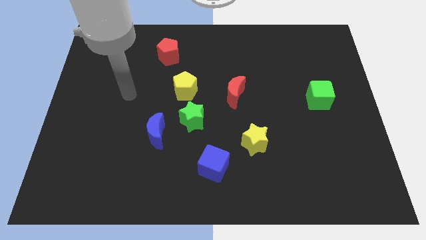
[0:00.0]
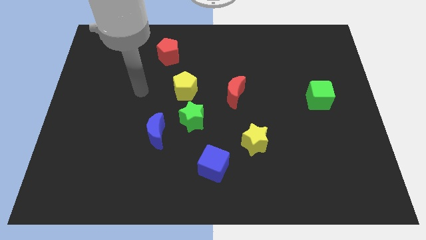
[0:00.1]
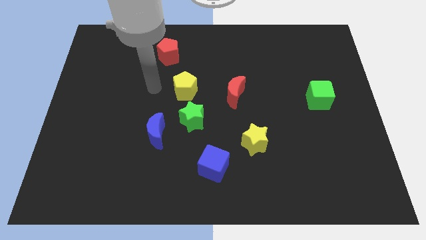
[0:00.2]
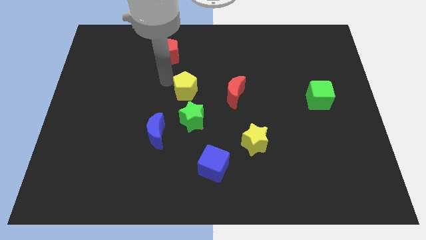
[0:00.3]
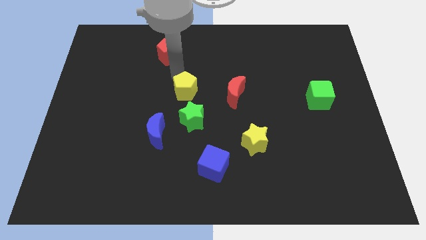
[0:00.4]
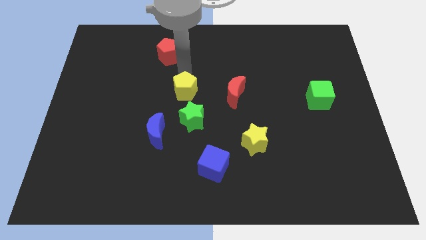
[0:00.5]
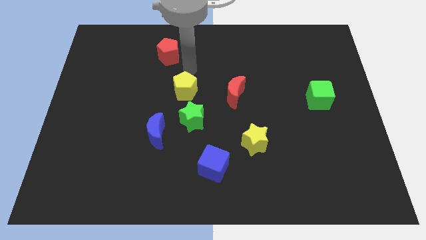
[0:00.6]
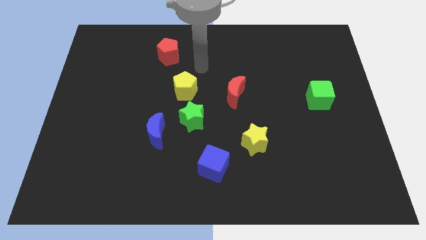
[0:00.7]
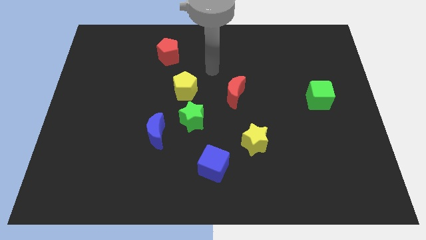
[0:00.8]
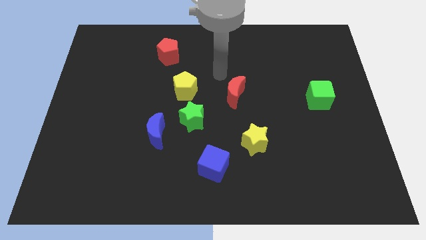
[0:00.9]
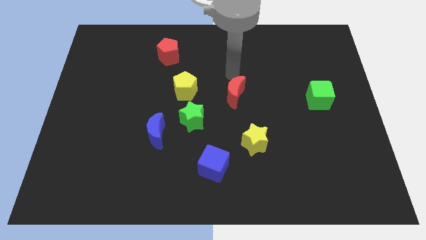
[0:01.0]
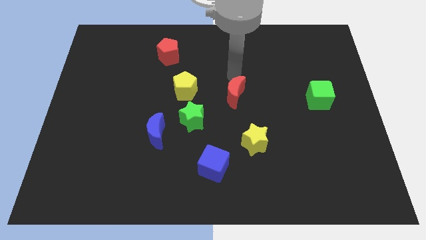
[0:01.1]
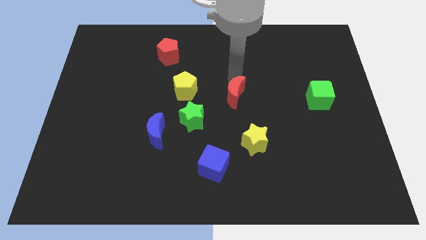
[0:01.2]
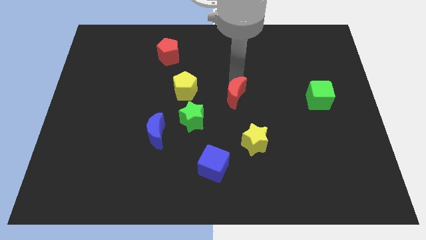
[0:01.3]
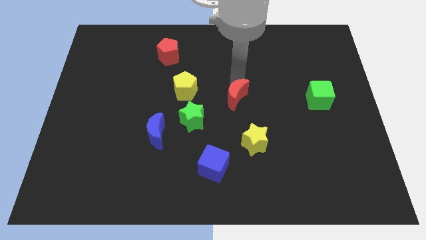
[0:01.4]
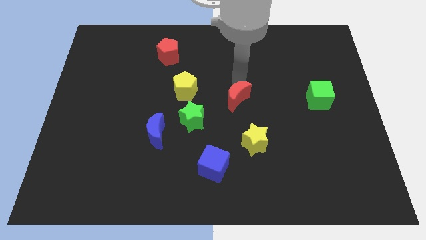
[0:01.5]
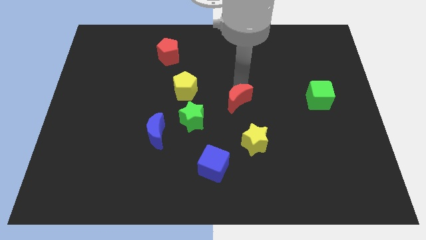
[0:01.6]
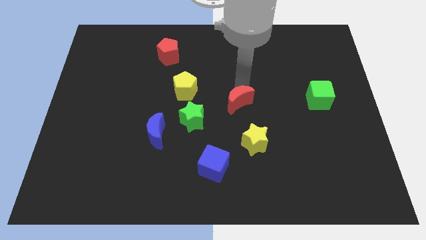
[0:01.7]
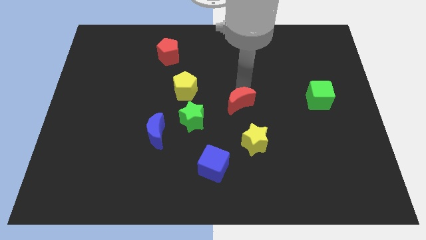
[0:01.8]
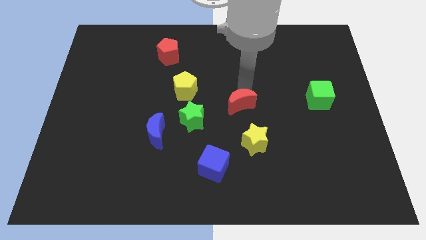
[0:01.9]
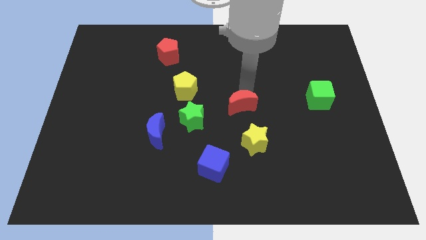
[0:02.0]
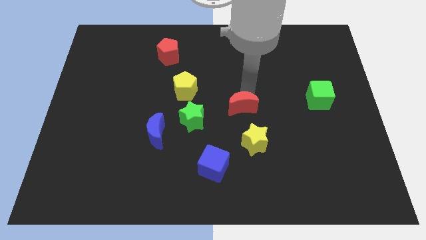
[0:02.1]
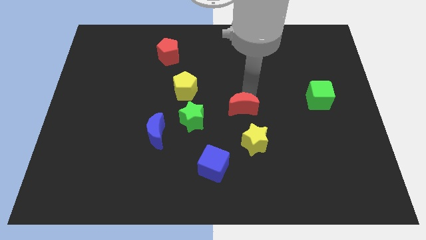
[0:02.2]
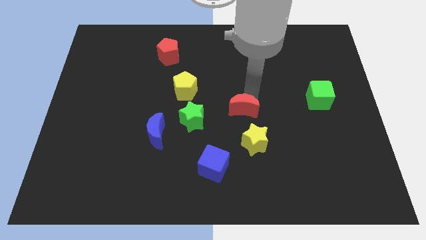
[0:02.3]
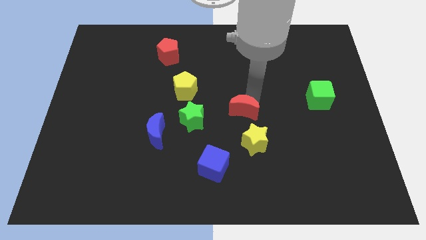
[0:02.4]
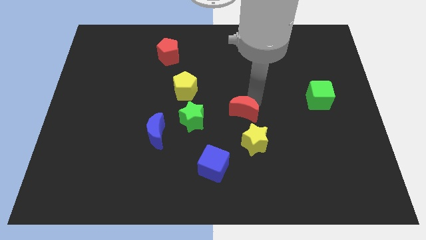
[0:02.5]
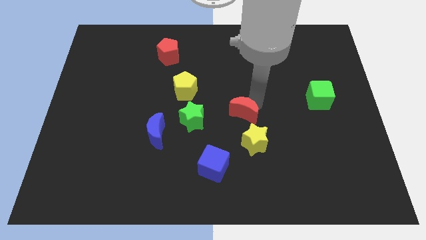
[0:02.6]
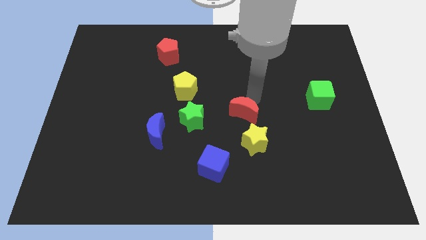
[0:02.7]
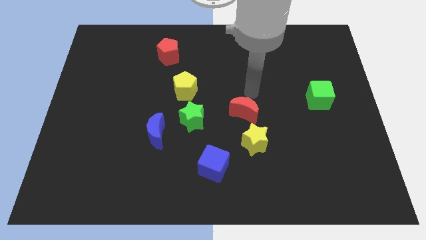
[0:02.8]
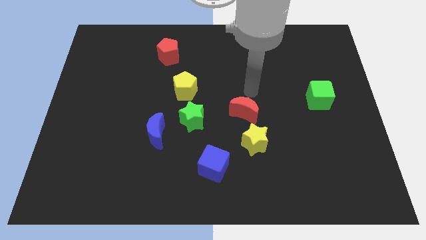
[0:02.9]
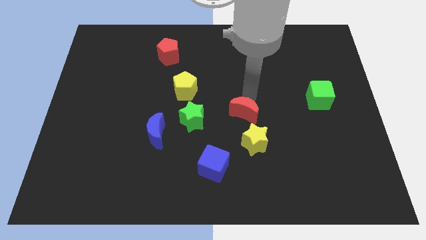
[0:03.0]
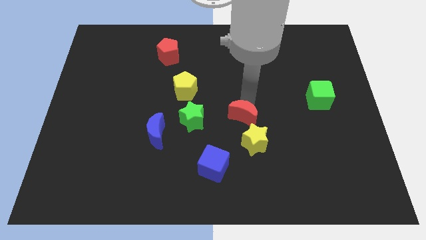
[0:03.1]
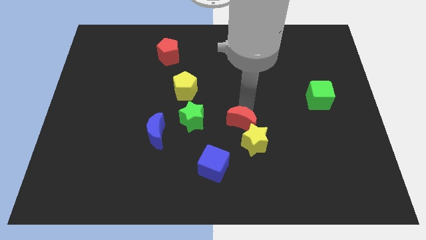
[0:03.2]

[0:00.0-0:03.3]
push the red moon a little bit down

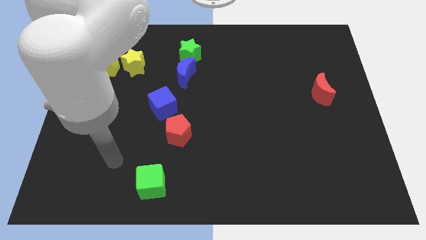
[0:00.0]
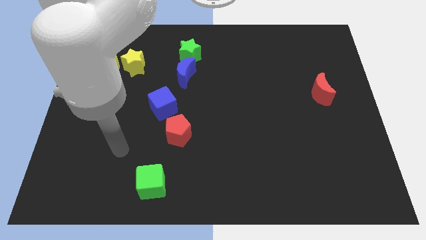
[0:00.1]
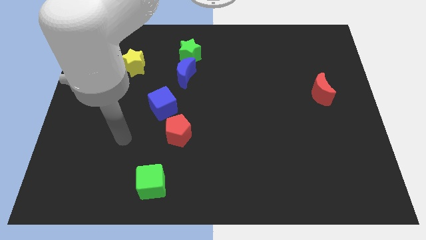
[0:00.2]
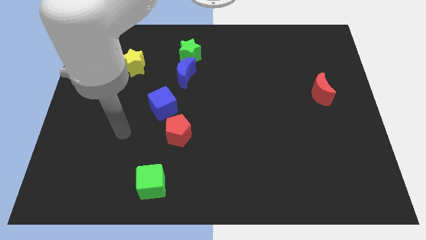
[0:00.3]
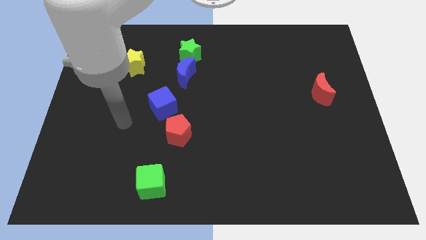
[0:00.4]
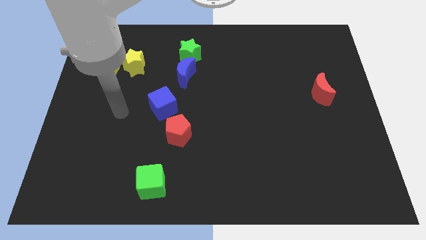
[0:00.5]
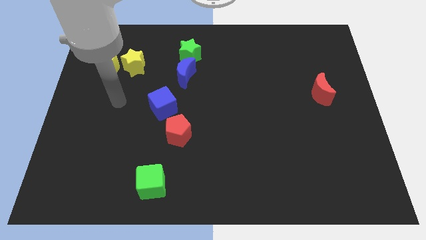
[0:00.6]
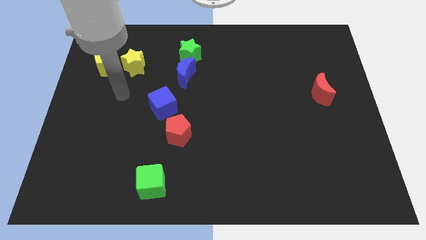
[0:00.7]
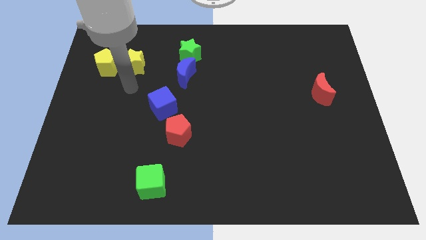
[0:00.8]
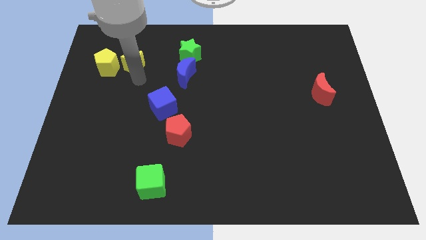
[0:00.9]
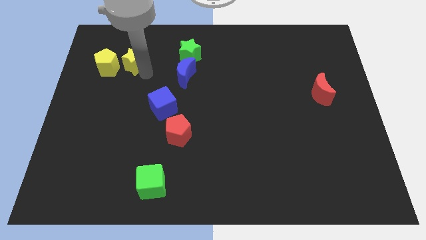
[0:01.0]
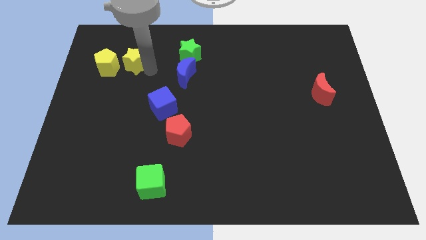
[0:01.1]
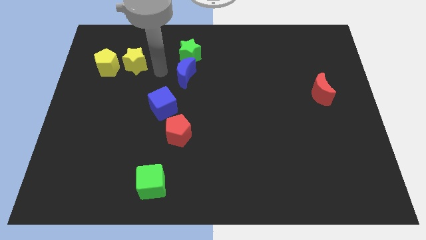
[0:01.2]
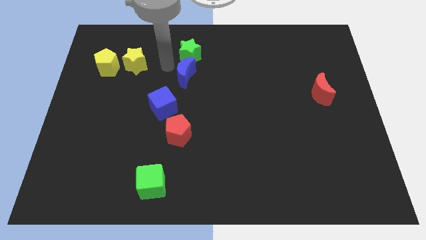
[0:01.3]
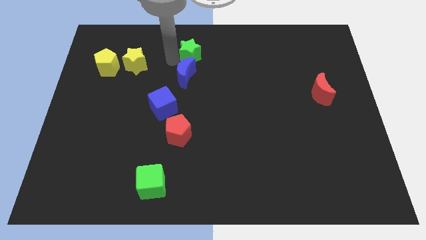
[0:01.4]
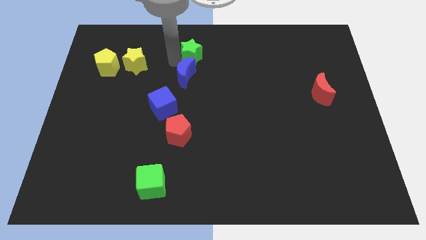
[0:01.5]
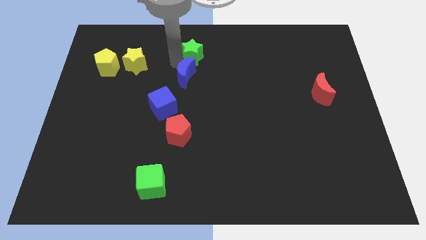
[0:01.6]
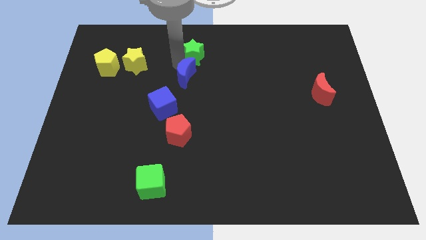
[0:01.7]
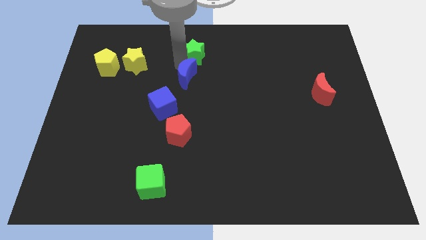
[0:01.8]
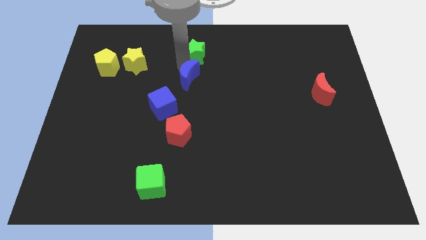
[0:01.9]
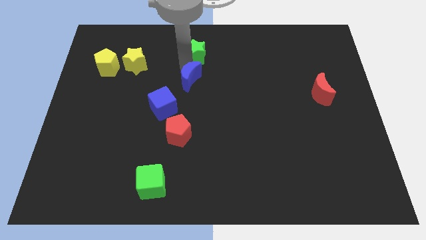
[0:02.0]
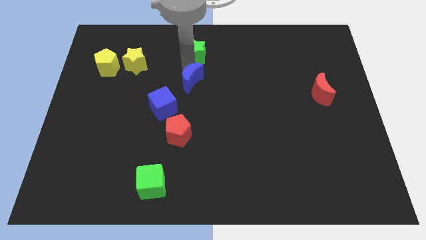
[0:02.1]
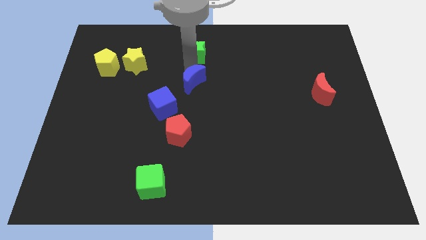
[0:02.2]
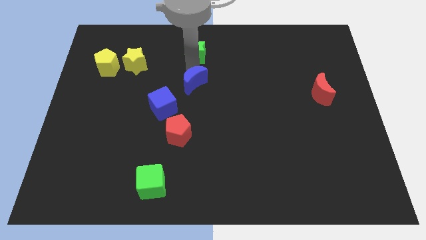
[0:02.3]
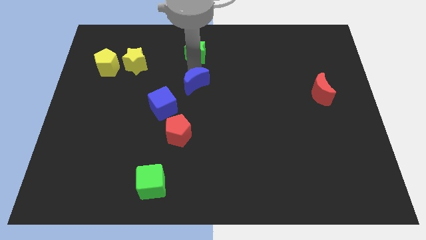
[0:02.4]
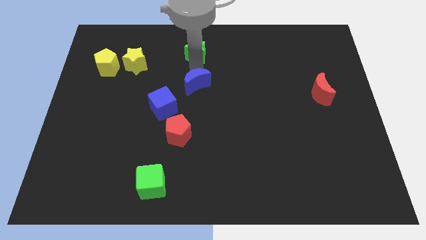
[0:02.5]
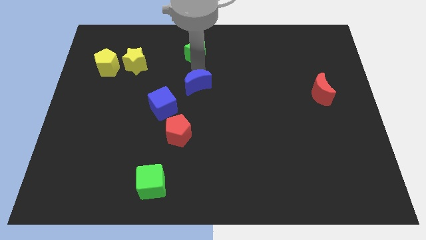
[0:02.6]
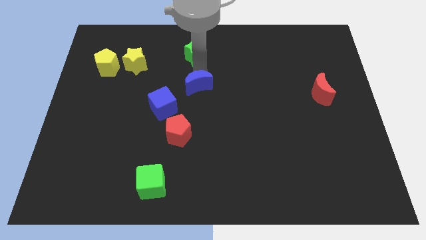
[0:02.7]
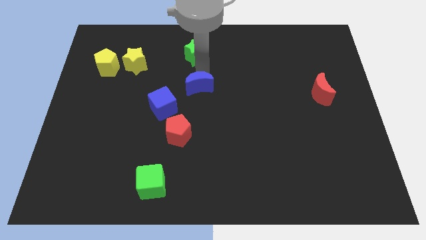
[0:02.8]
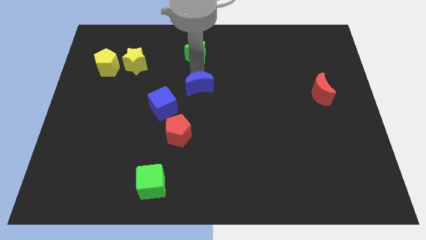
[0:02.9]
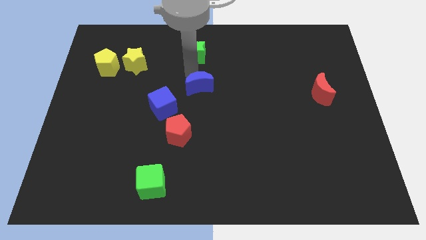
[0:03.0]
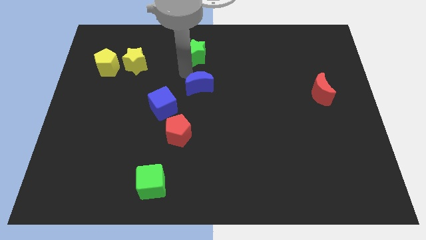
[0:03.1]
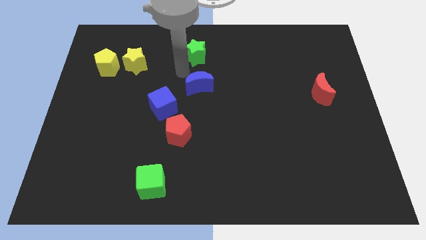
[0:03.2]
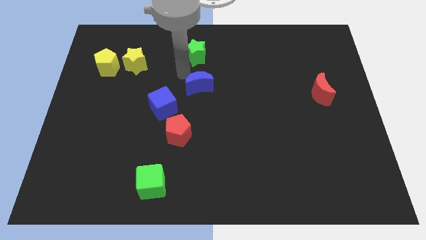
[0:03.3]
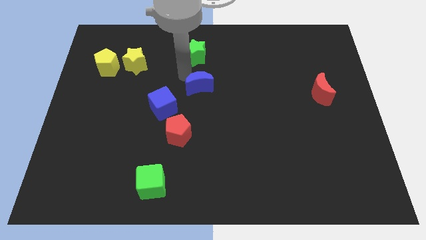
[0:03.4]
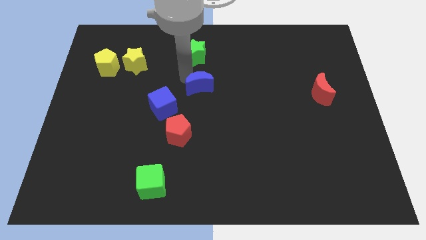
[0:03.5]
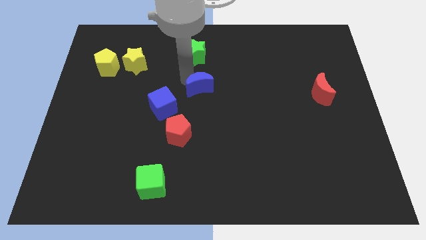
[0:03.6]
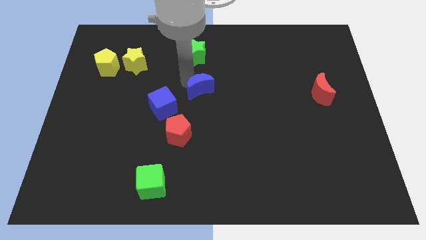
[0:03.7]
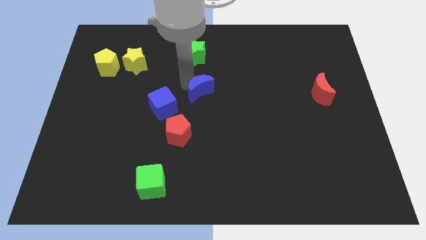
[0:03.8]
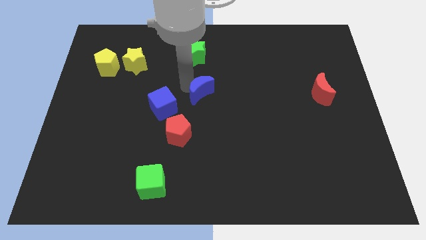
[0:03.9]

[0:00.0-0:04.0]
push the blue moon down and to the right a bit

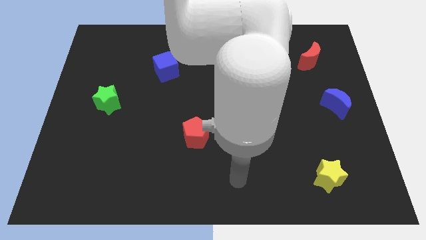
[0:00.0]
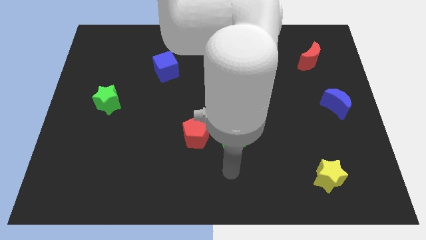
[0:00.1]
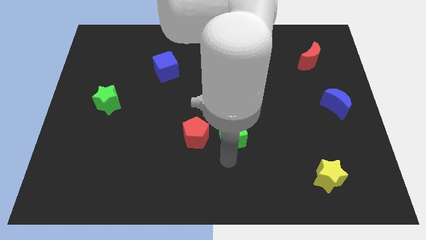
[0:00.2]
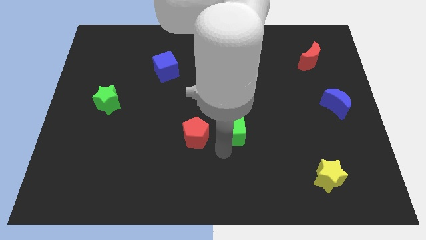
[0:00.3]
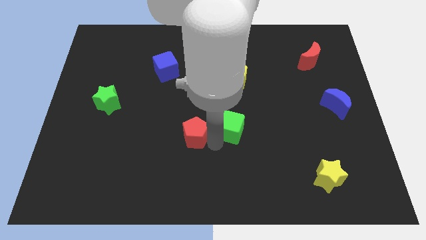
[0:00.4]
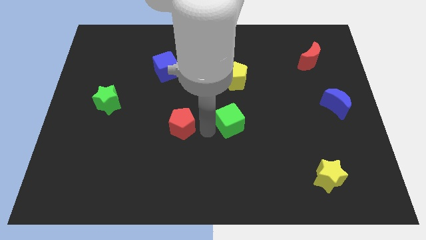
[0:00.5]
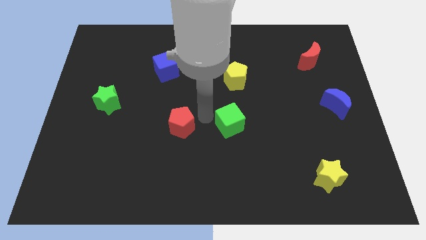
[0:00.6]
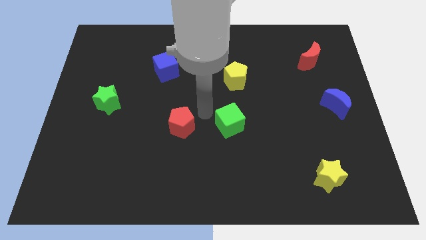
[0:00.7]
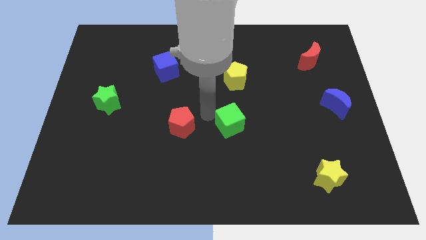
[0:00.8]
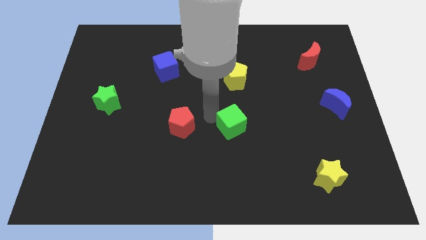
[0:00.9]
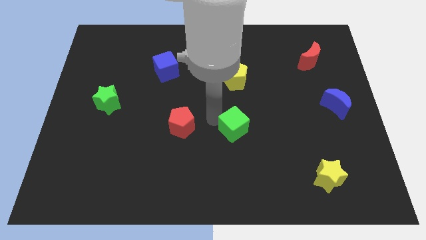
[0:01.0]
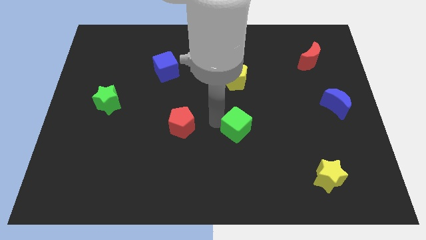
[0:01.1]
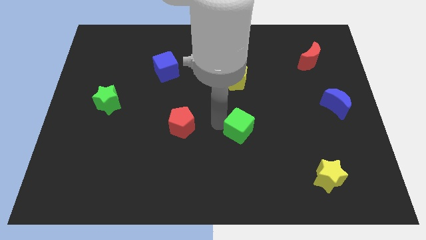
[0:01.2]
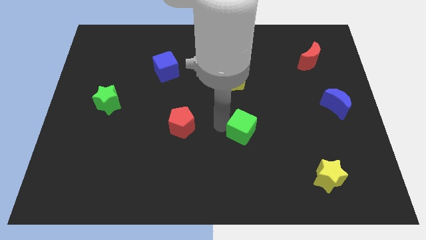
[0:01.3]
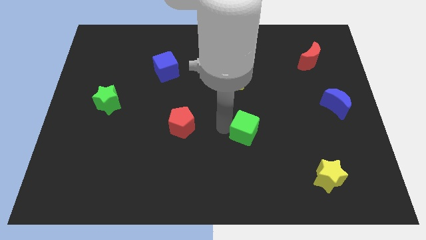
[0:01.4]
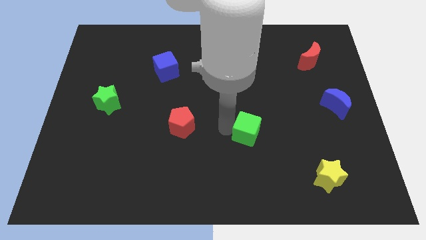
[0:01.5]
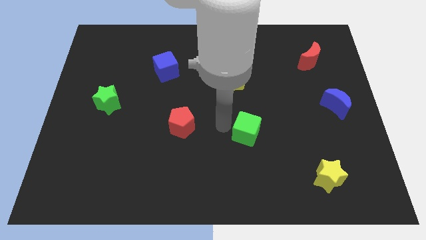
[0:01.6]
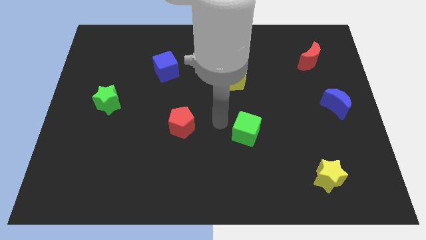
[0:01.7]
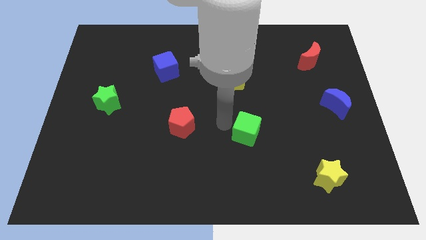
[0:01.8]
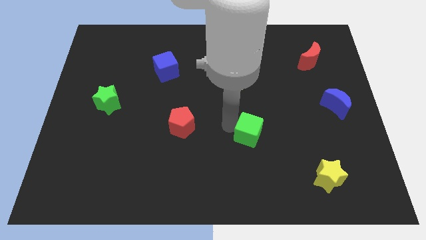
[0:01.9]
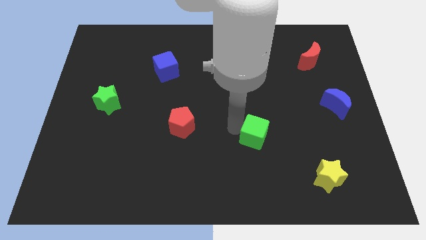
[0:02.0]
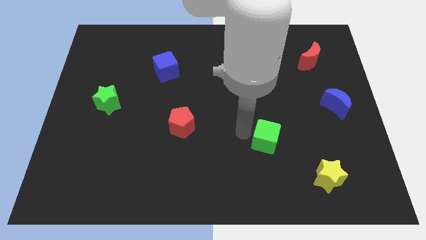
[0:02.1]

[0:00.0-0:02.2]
push the green cube a little bit to the right
